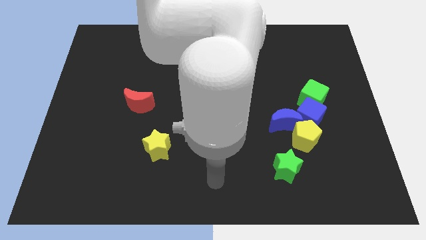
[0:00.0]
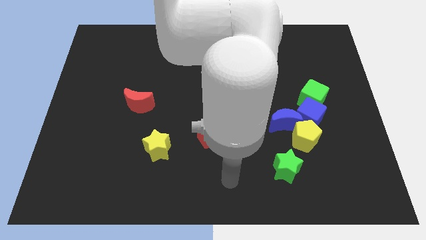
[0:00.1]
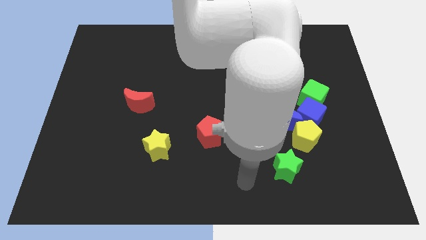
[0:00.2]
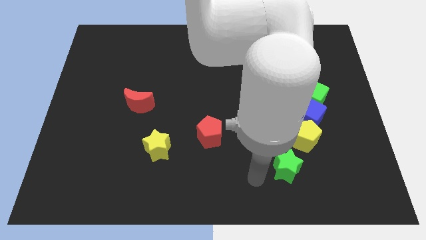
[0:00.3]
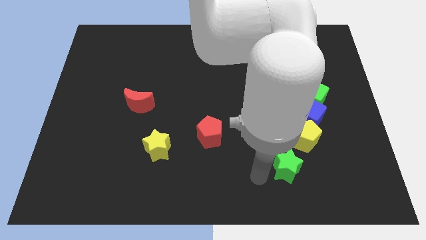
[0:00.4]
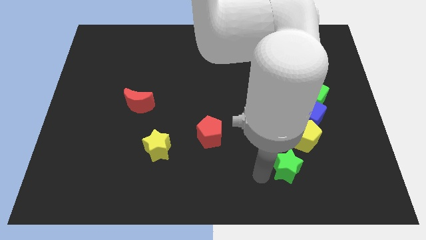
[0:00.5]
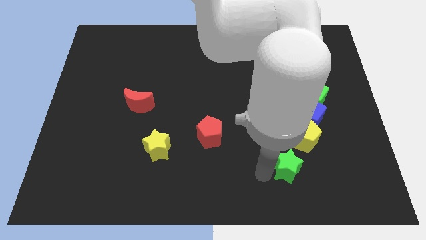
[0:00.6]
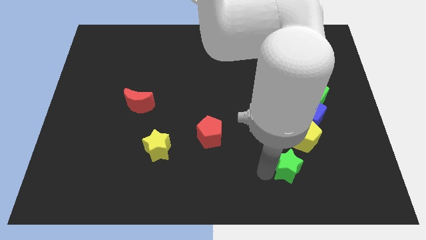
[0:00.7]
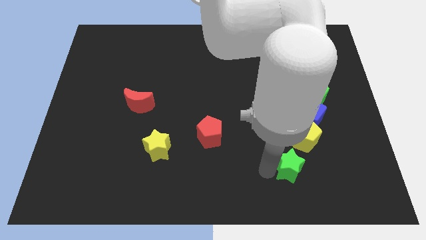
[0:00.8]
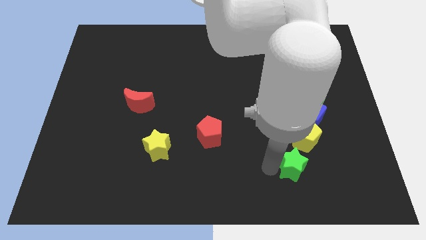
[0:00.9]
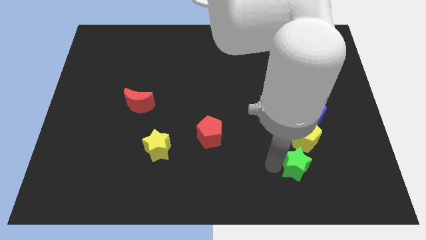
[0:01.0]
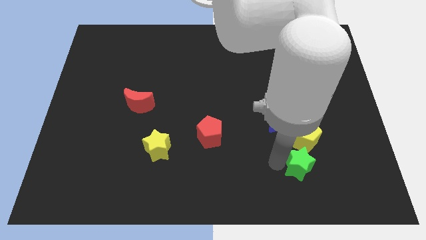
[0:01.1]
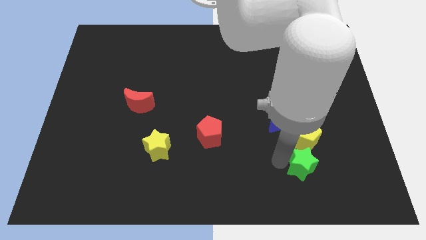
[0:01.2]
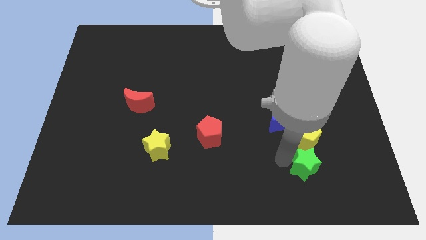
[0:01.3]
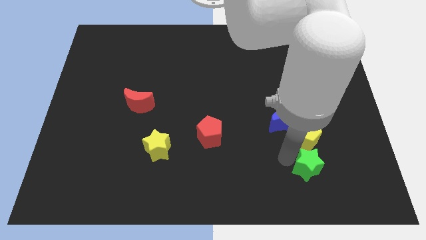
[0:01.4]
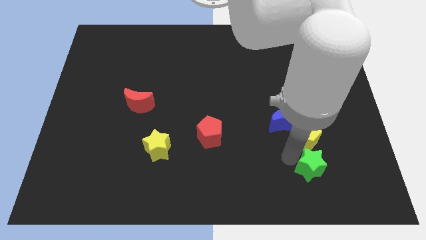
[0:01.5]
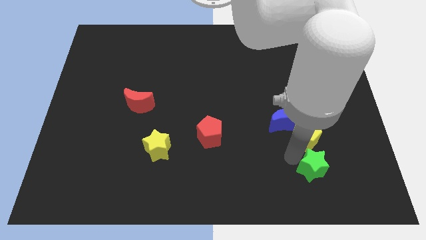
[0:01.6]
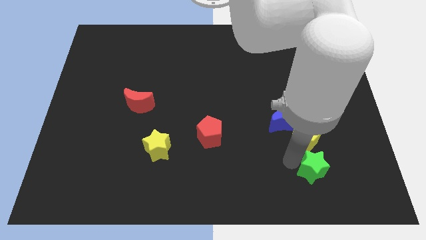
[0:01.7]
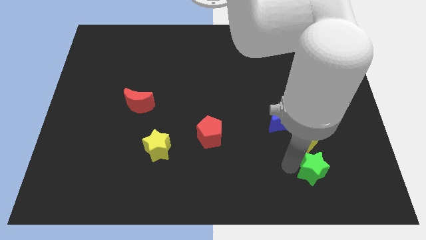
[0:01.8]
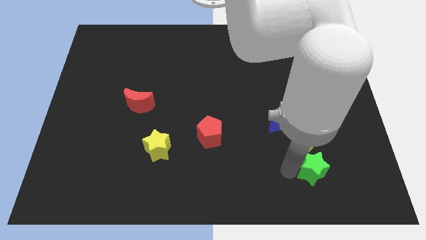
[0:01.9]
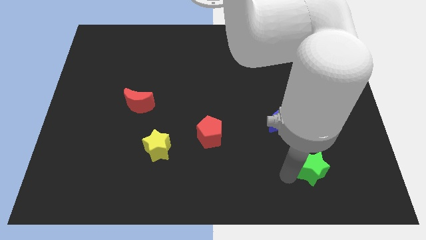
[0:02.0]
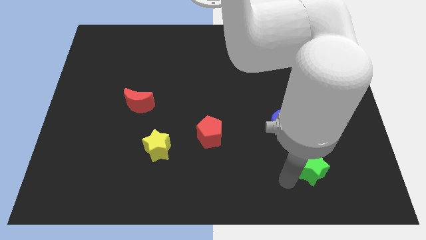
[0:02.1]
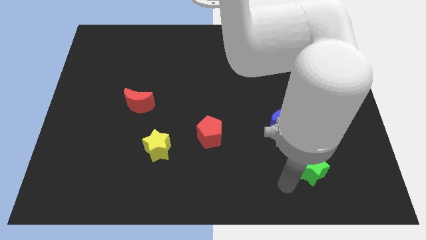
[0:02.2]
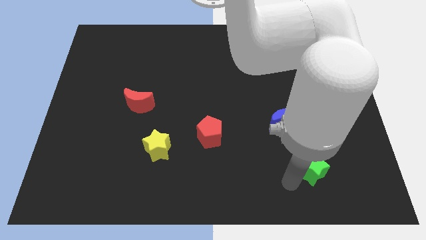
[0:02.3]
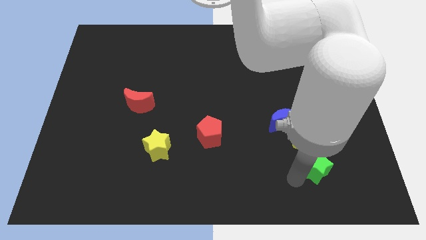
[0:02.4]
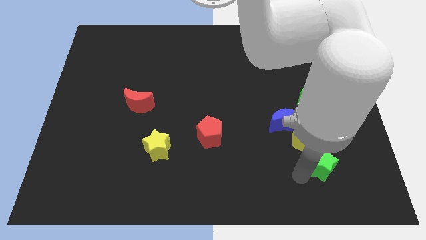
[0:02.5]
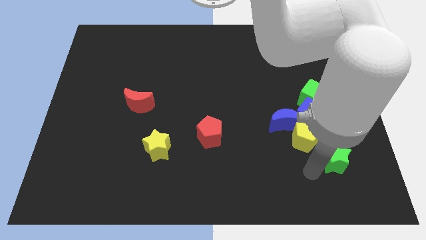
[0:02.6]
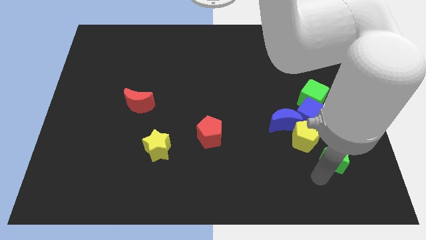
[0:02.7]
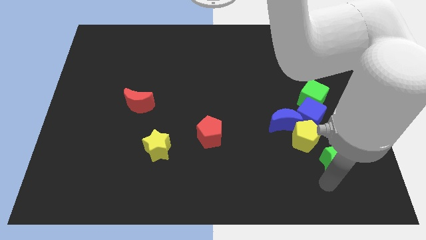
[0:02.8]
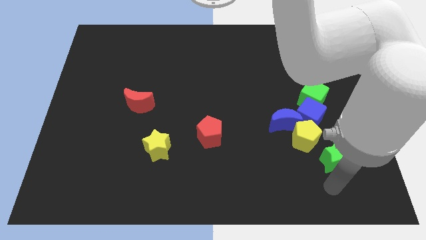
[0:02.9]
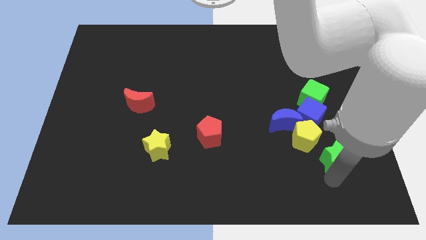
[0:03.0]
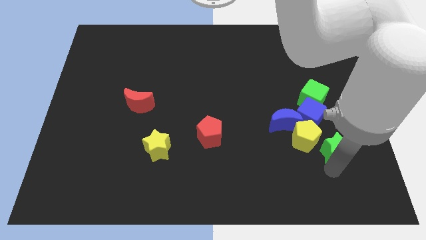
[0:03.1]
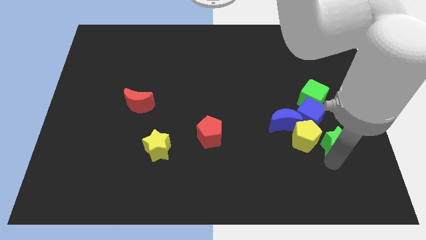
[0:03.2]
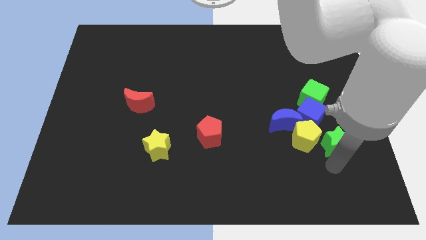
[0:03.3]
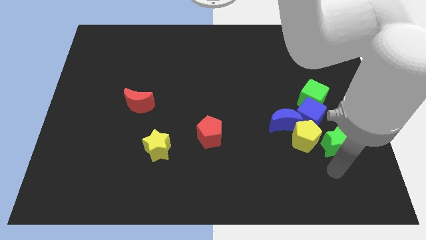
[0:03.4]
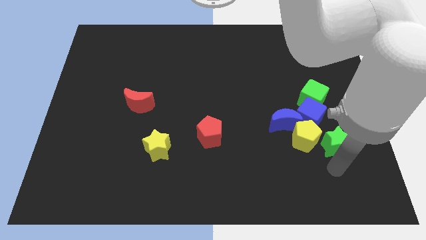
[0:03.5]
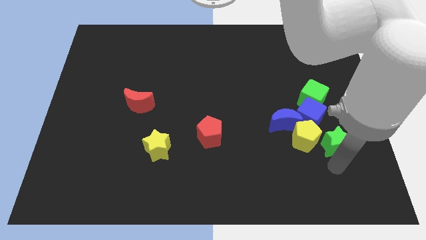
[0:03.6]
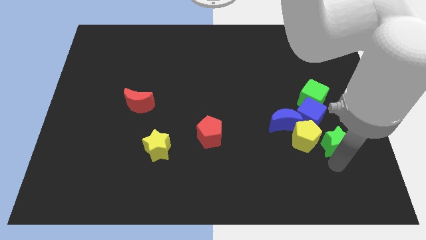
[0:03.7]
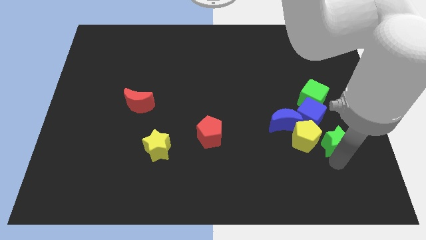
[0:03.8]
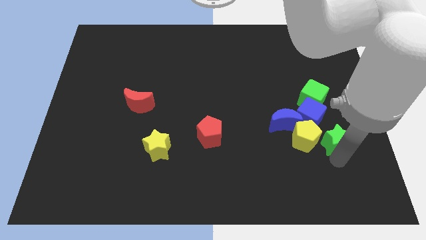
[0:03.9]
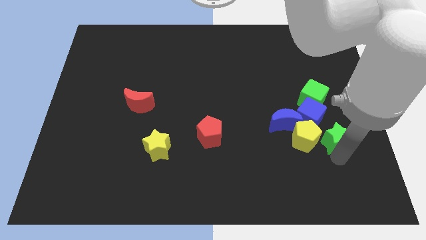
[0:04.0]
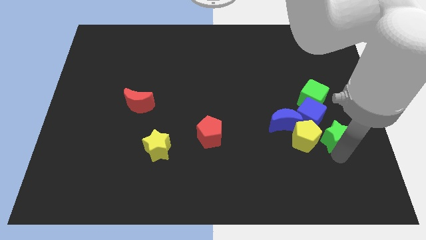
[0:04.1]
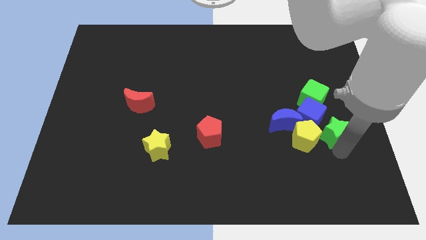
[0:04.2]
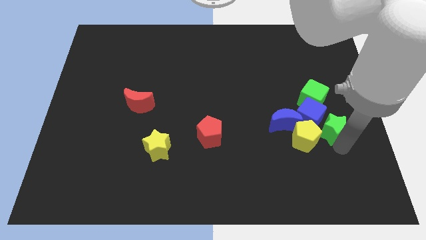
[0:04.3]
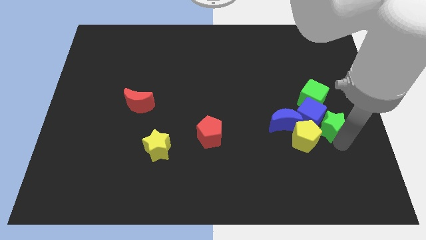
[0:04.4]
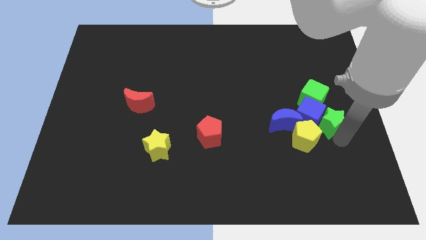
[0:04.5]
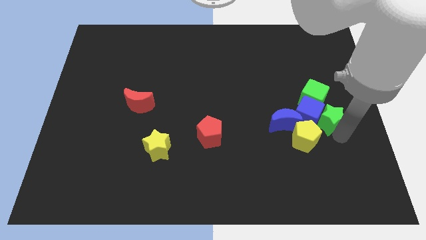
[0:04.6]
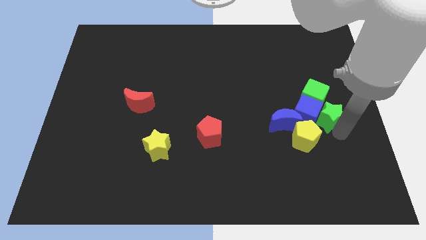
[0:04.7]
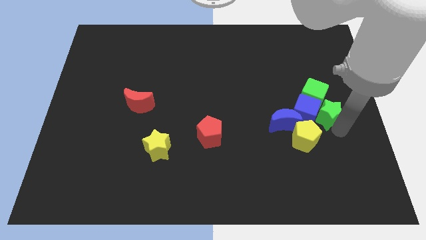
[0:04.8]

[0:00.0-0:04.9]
move the green star next to the green cube

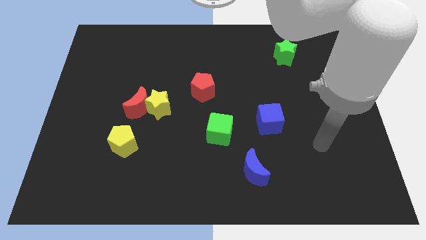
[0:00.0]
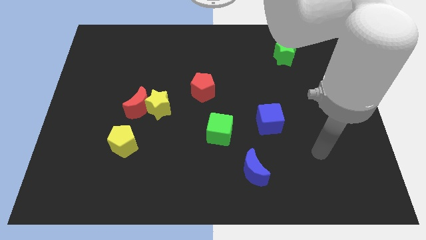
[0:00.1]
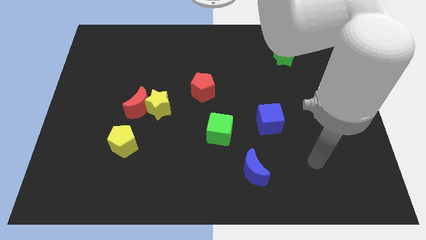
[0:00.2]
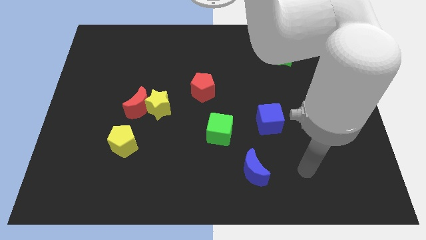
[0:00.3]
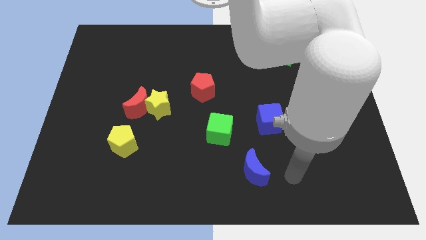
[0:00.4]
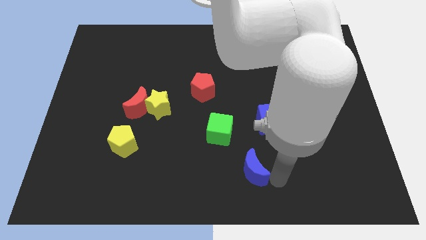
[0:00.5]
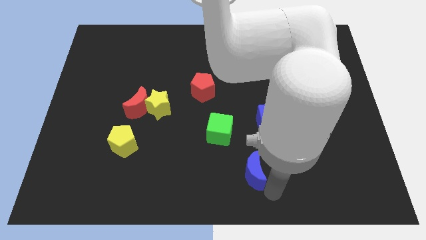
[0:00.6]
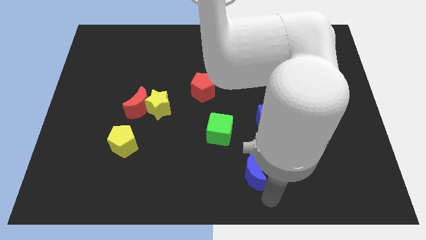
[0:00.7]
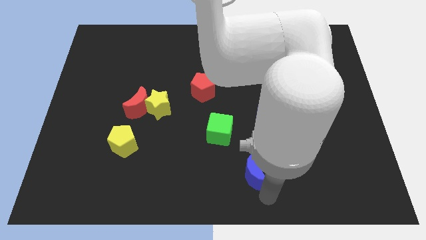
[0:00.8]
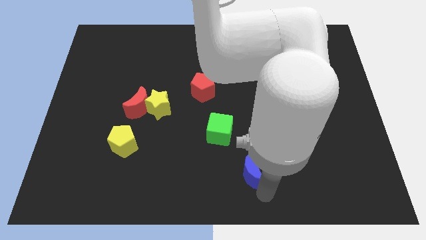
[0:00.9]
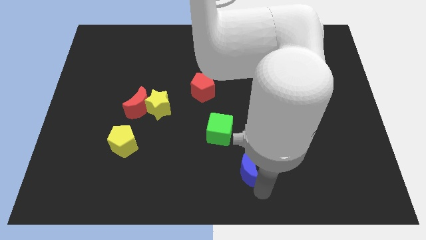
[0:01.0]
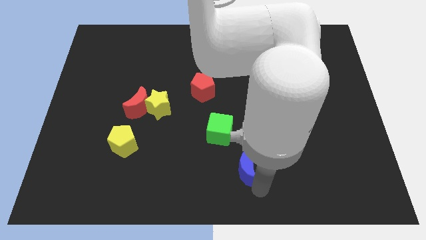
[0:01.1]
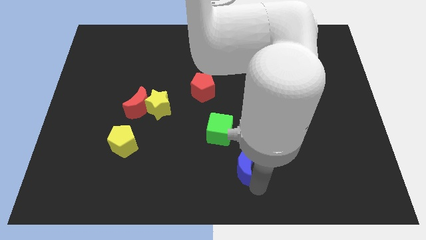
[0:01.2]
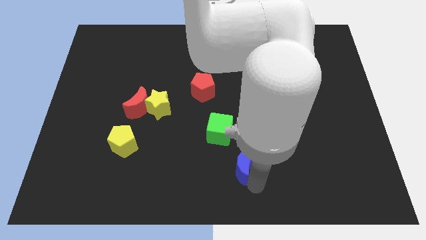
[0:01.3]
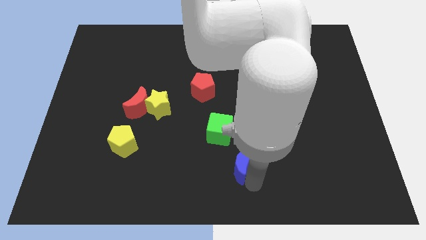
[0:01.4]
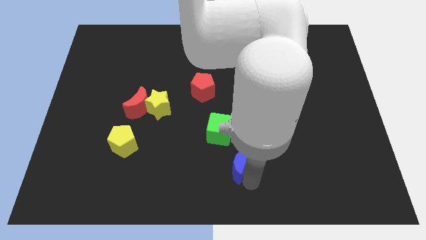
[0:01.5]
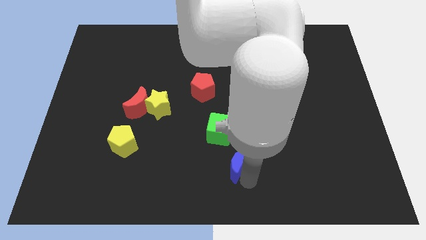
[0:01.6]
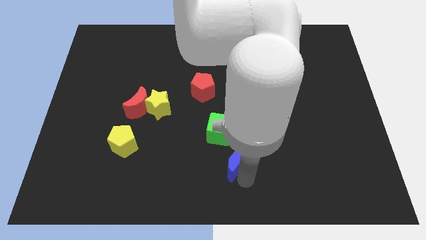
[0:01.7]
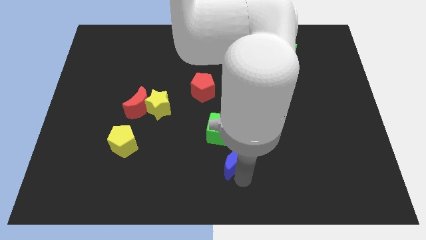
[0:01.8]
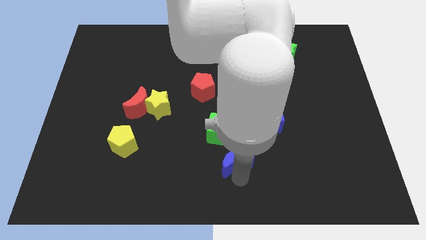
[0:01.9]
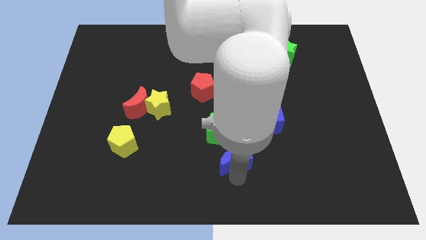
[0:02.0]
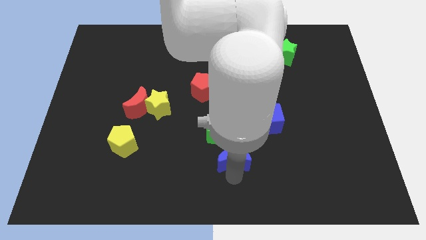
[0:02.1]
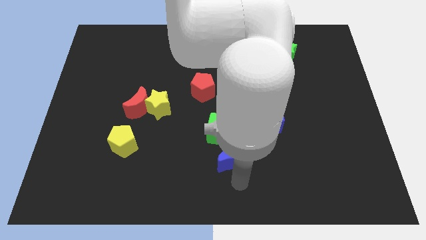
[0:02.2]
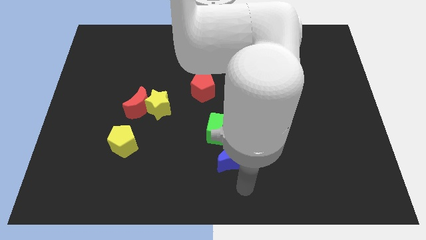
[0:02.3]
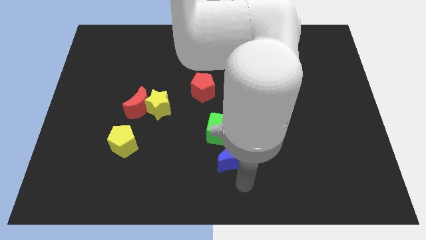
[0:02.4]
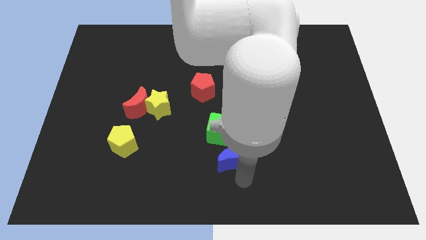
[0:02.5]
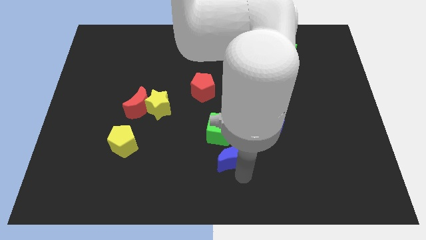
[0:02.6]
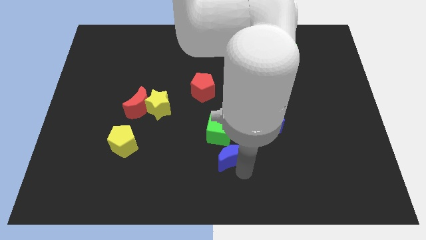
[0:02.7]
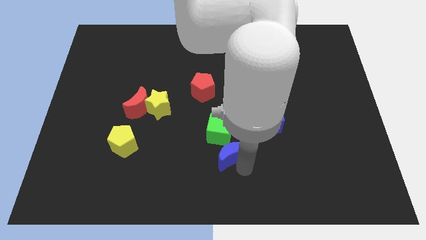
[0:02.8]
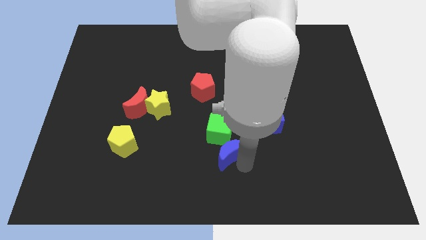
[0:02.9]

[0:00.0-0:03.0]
push the blue moon towards the green cube
